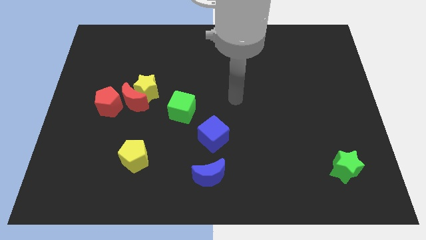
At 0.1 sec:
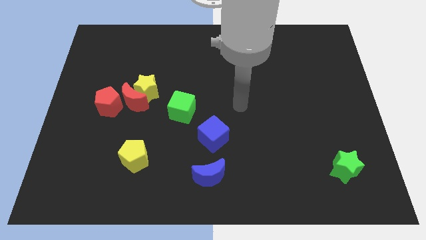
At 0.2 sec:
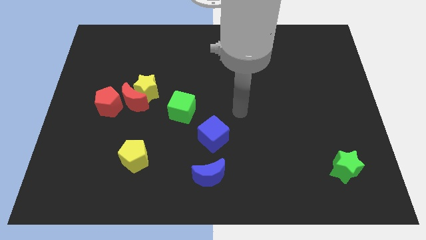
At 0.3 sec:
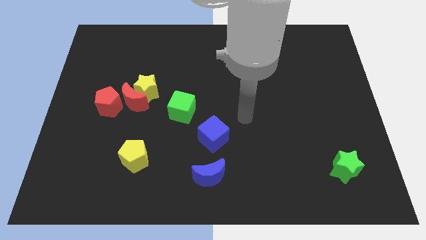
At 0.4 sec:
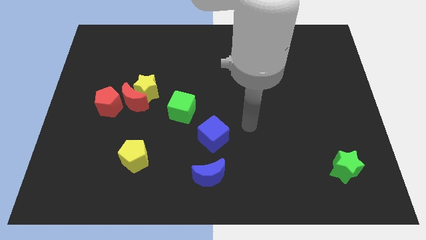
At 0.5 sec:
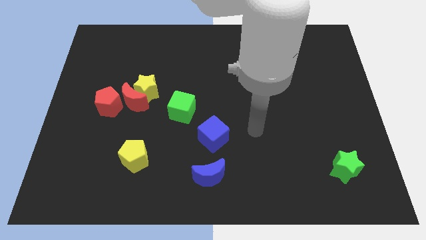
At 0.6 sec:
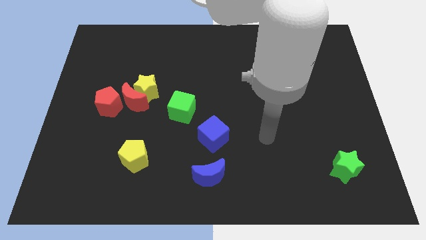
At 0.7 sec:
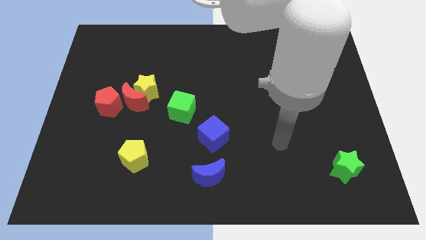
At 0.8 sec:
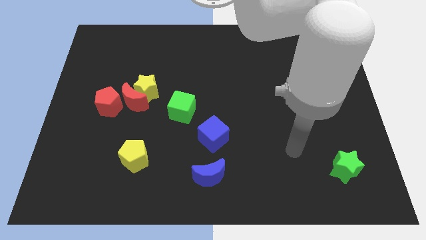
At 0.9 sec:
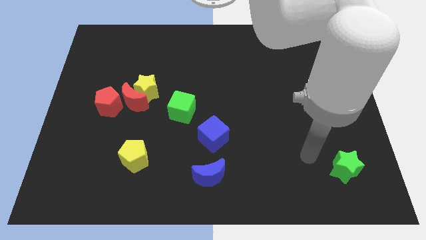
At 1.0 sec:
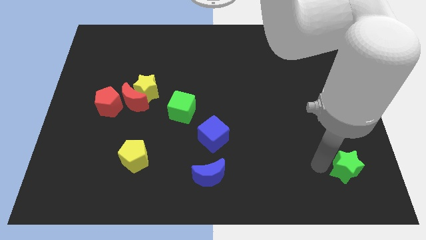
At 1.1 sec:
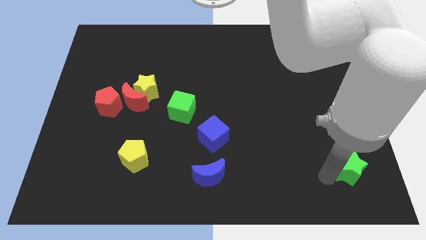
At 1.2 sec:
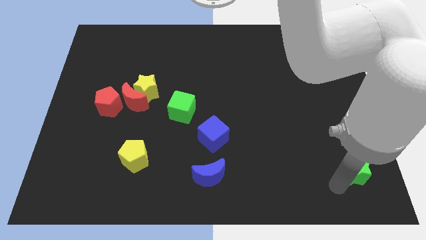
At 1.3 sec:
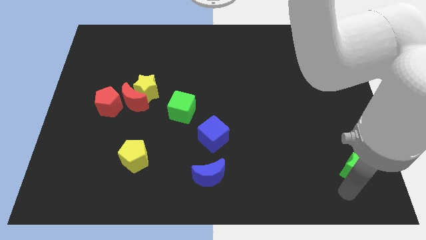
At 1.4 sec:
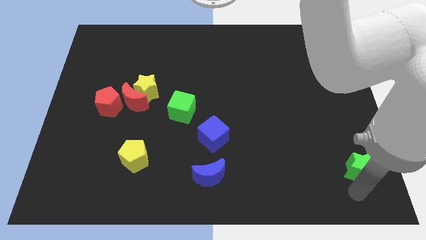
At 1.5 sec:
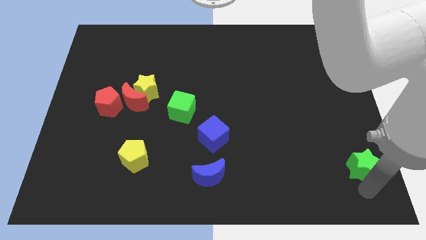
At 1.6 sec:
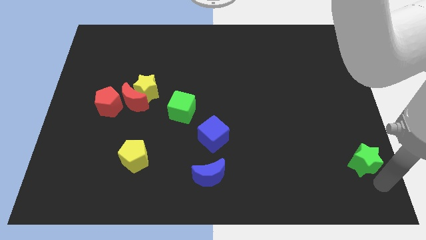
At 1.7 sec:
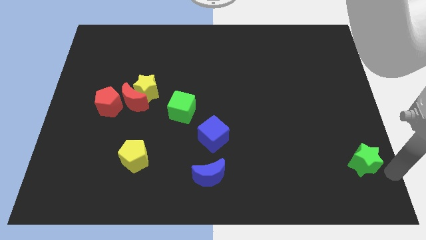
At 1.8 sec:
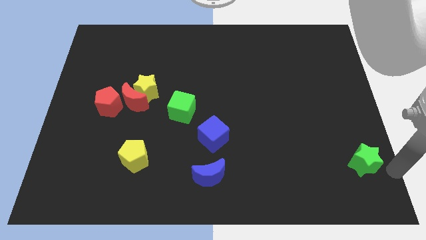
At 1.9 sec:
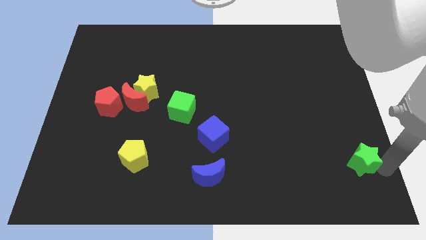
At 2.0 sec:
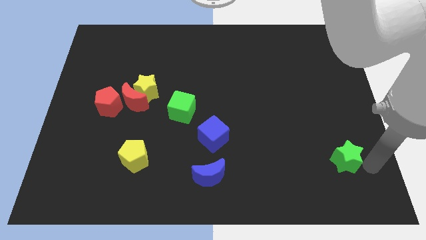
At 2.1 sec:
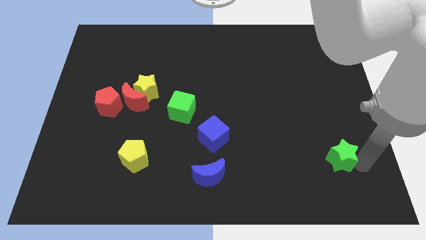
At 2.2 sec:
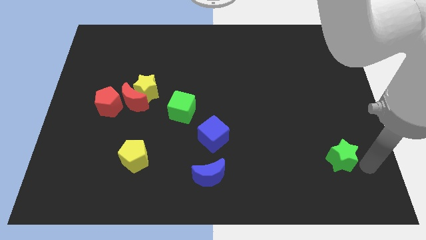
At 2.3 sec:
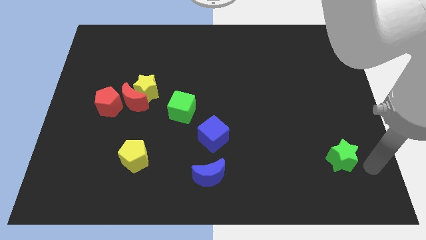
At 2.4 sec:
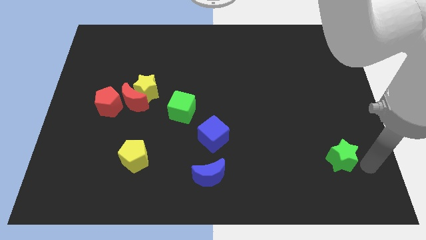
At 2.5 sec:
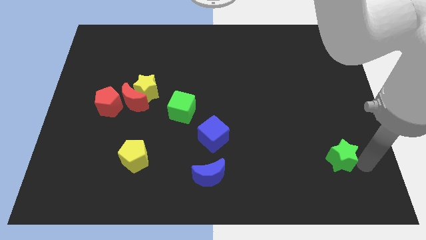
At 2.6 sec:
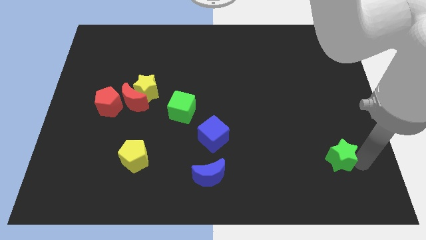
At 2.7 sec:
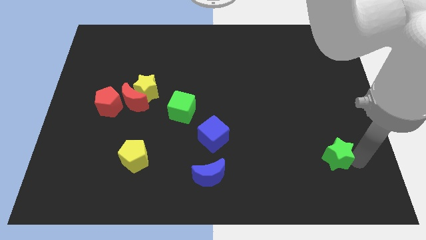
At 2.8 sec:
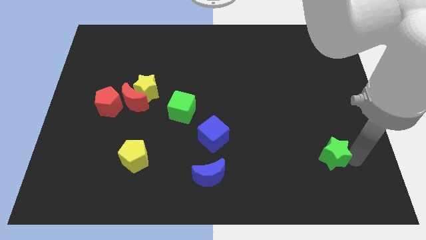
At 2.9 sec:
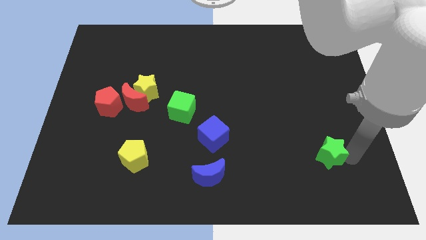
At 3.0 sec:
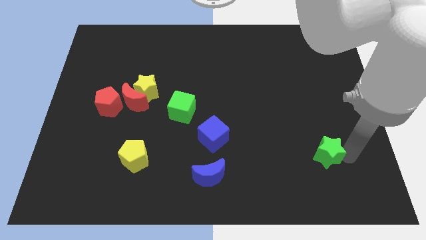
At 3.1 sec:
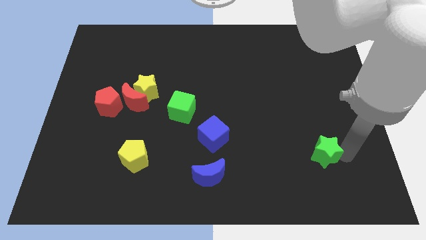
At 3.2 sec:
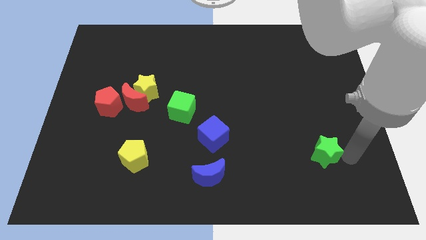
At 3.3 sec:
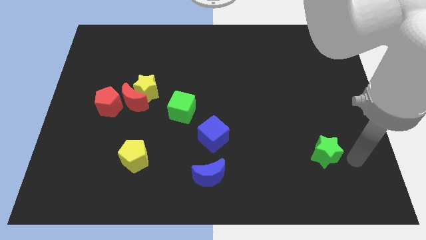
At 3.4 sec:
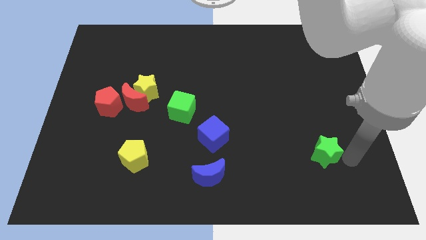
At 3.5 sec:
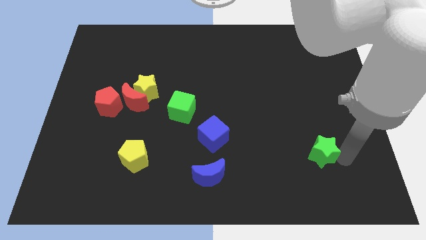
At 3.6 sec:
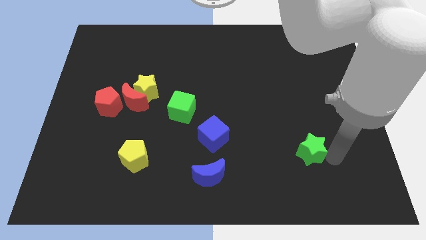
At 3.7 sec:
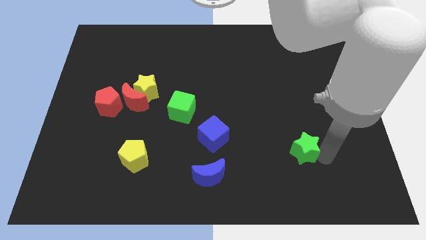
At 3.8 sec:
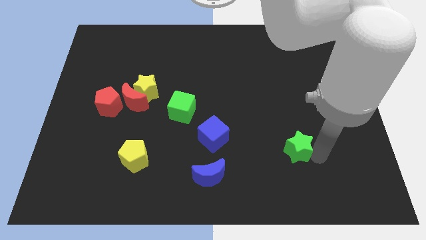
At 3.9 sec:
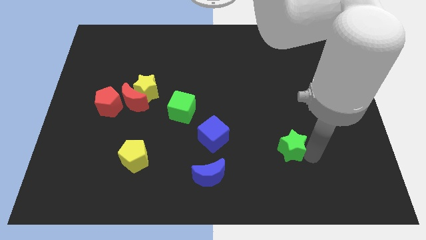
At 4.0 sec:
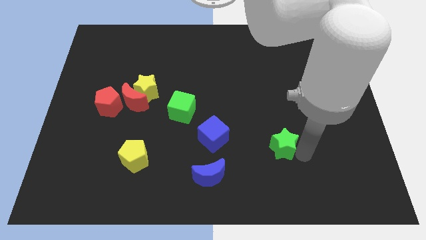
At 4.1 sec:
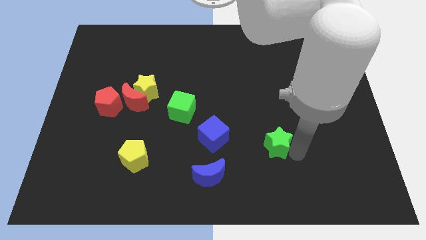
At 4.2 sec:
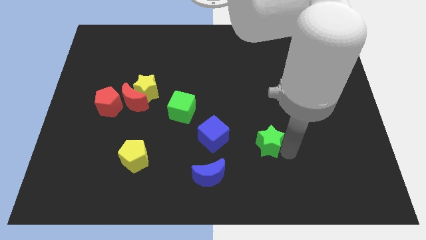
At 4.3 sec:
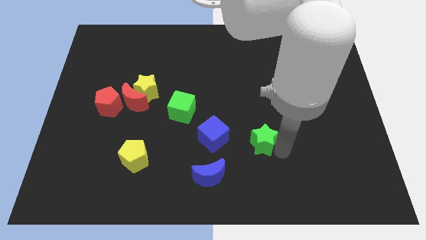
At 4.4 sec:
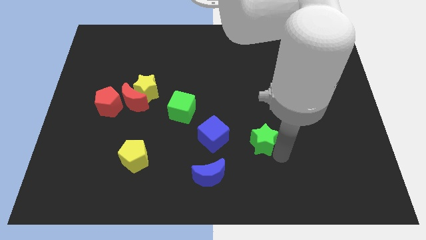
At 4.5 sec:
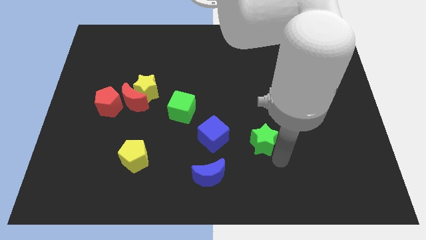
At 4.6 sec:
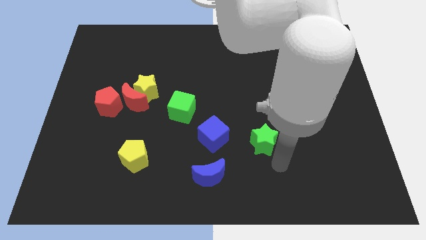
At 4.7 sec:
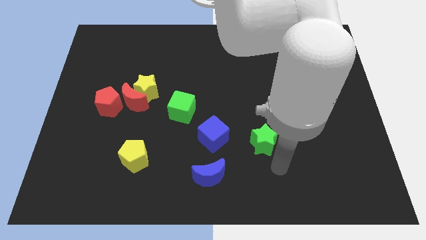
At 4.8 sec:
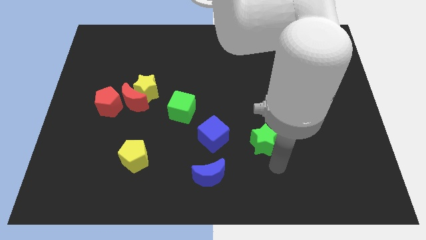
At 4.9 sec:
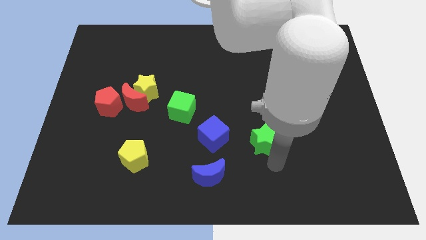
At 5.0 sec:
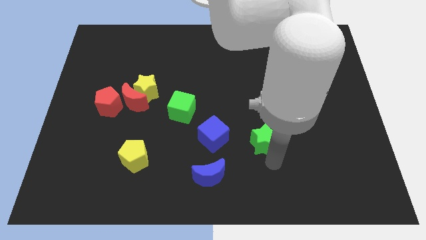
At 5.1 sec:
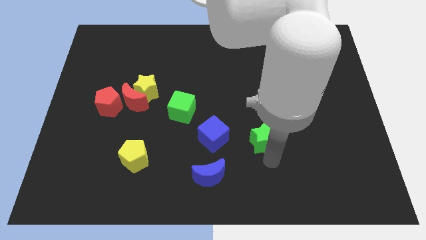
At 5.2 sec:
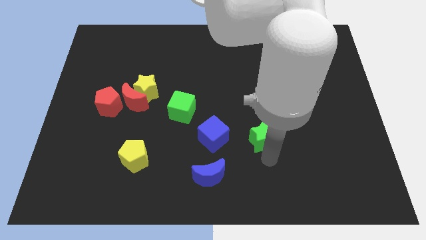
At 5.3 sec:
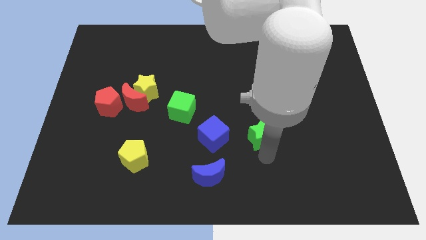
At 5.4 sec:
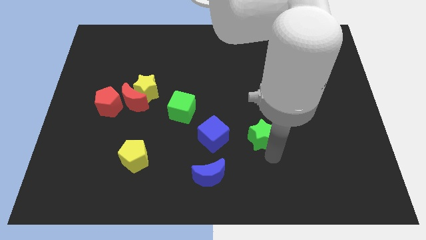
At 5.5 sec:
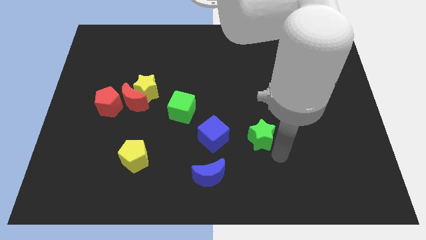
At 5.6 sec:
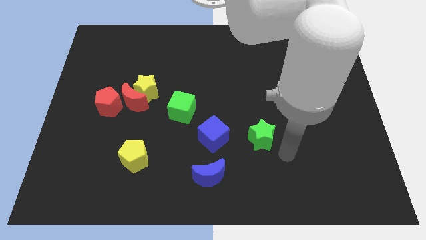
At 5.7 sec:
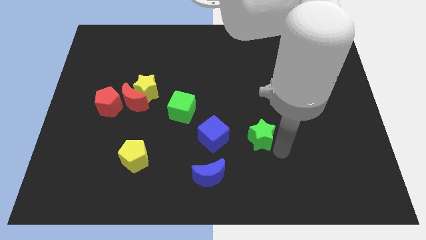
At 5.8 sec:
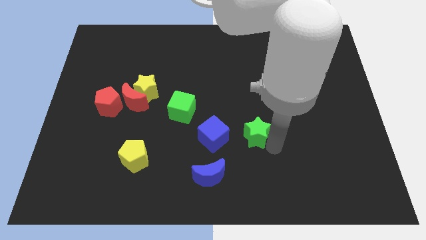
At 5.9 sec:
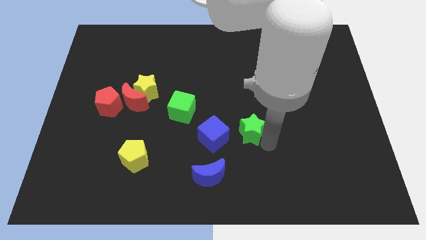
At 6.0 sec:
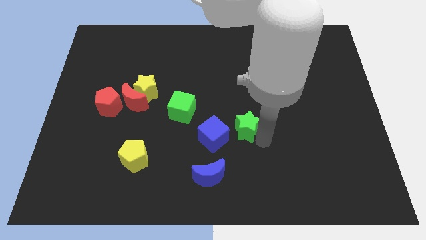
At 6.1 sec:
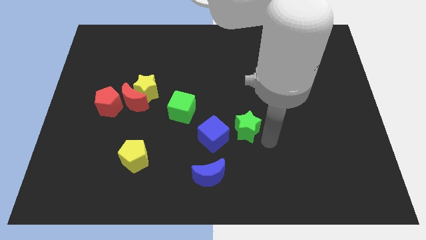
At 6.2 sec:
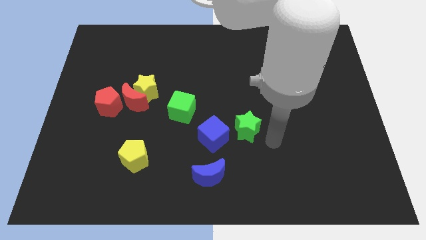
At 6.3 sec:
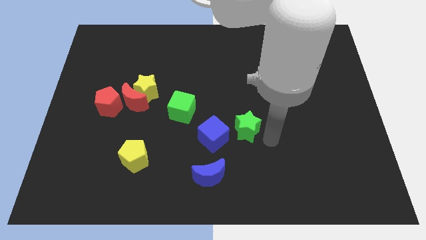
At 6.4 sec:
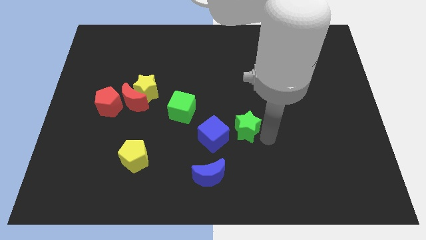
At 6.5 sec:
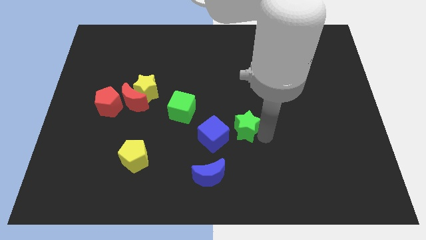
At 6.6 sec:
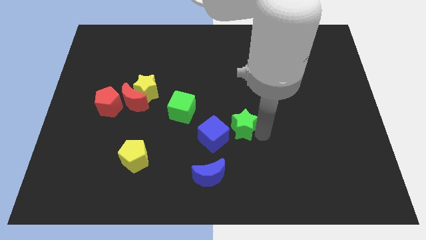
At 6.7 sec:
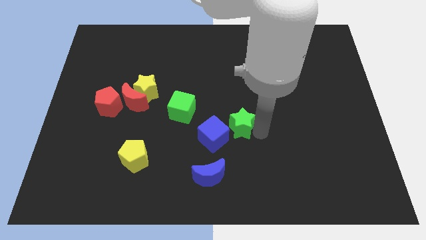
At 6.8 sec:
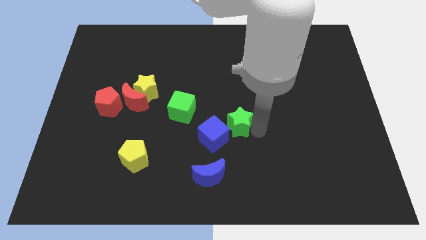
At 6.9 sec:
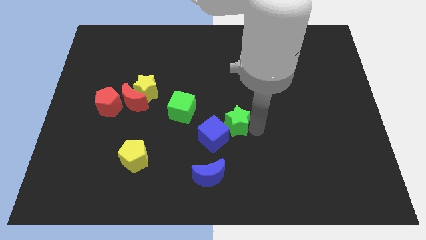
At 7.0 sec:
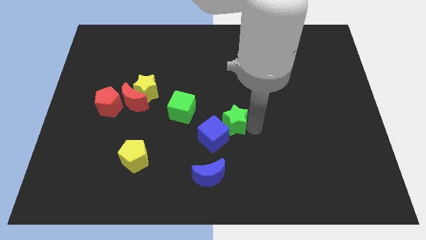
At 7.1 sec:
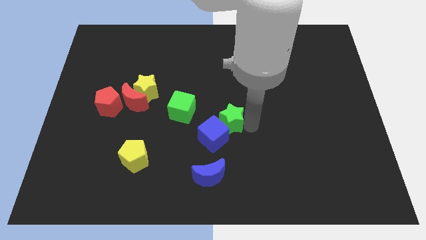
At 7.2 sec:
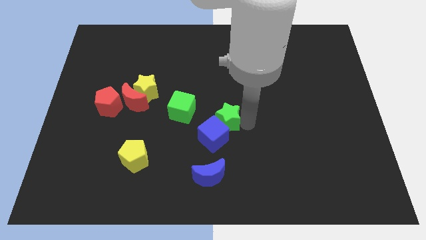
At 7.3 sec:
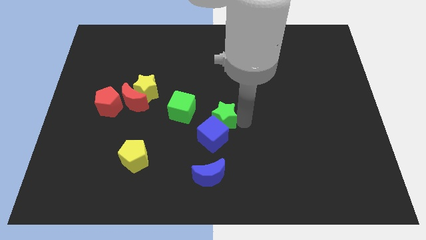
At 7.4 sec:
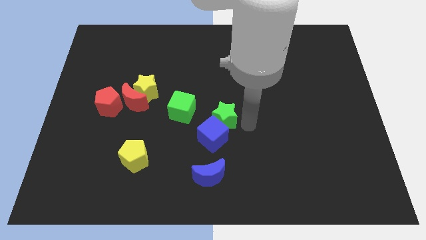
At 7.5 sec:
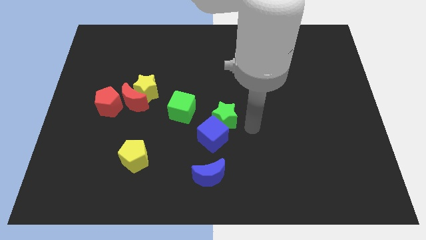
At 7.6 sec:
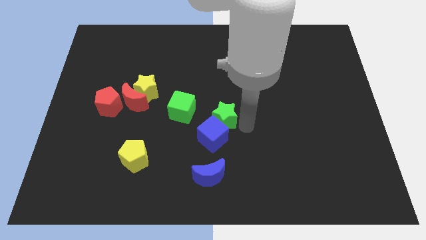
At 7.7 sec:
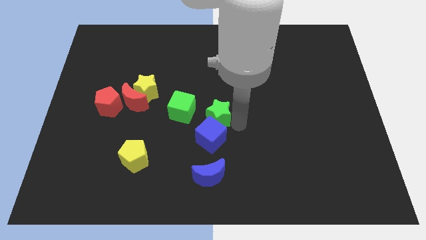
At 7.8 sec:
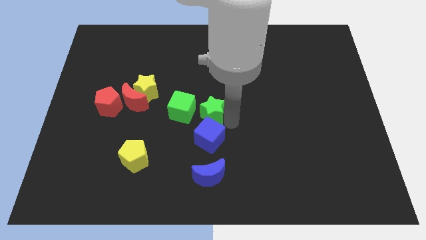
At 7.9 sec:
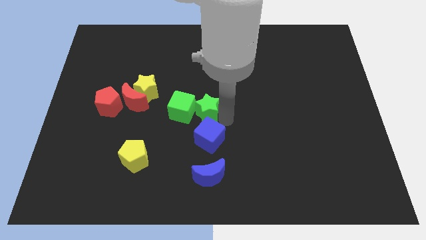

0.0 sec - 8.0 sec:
move the green star towards the green cube
